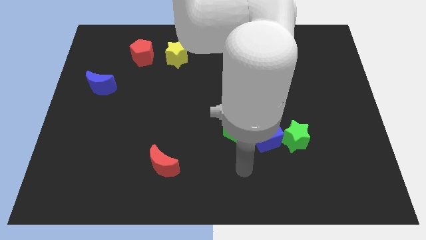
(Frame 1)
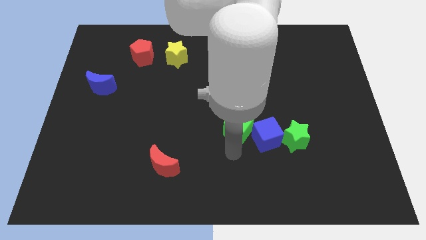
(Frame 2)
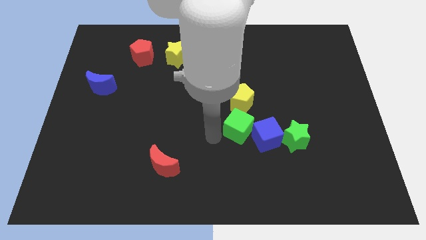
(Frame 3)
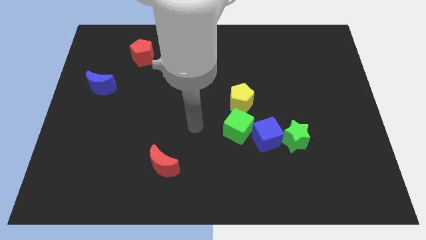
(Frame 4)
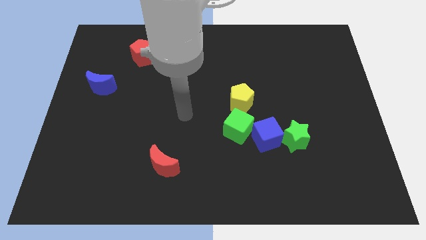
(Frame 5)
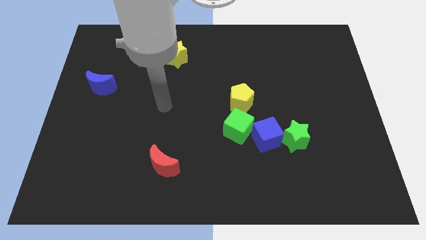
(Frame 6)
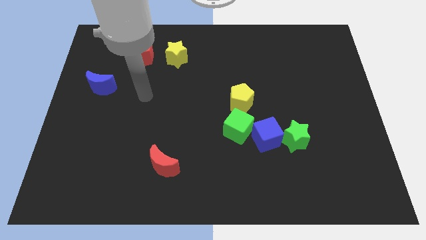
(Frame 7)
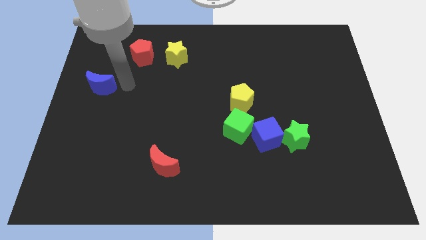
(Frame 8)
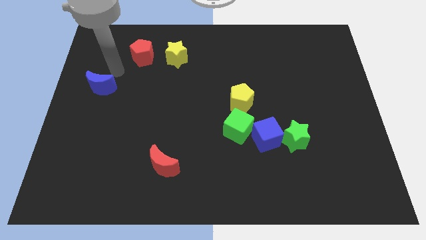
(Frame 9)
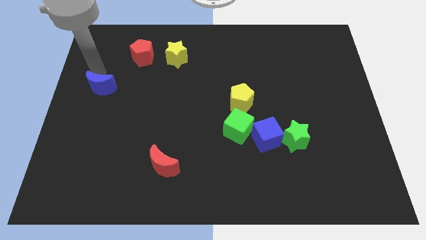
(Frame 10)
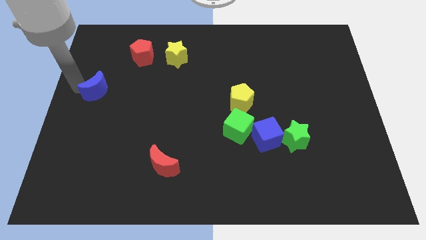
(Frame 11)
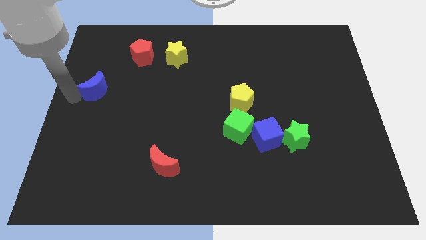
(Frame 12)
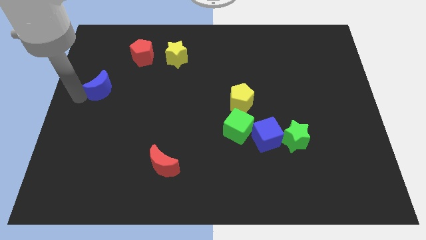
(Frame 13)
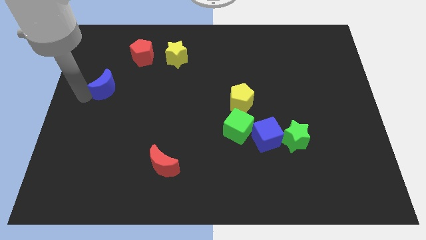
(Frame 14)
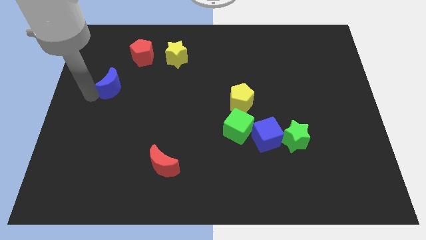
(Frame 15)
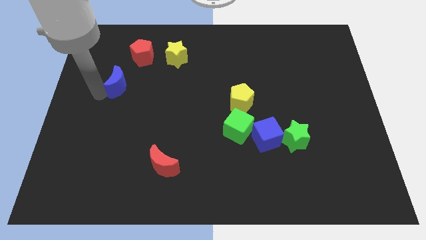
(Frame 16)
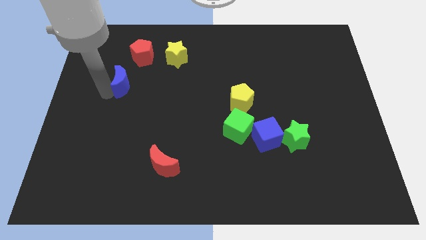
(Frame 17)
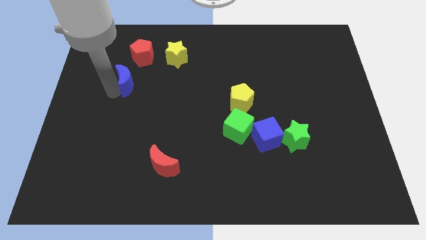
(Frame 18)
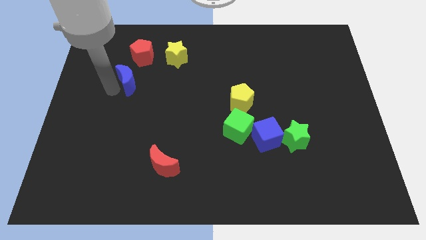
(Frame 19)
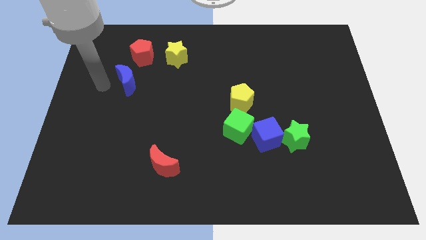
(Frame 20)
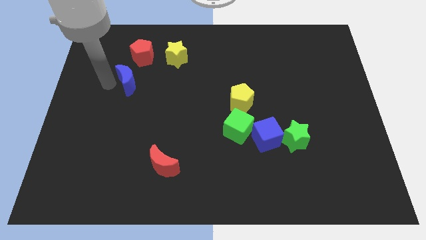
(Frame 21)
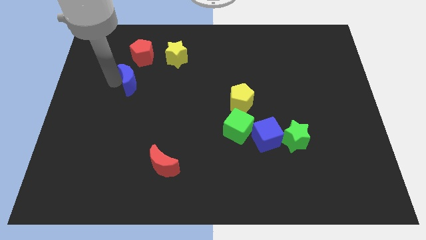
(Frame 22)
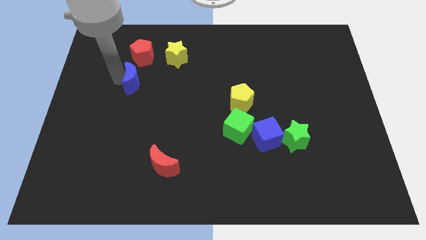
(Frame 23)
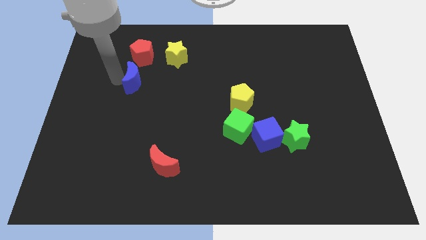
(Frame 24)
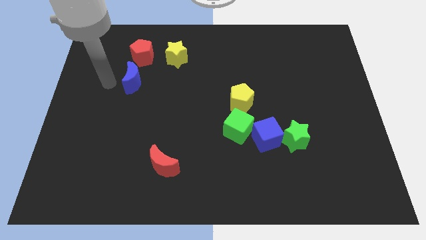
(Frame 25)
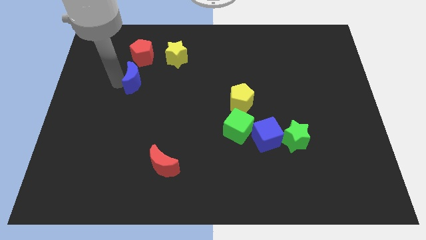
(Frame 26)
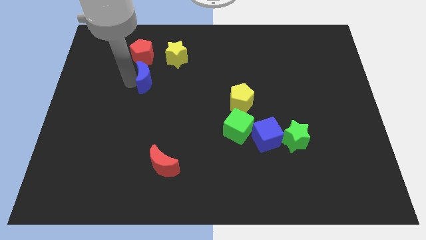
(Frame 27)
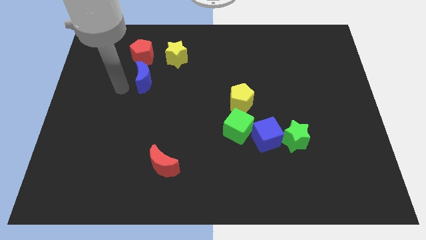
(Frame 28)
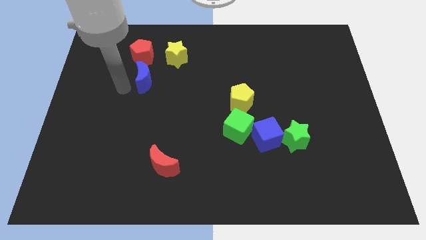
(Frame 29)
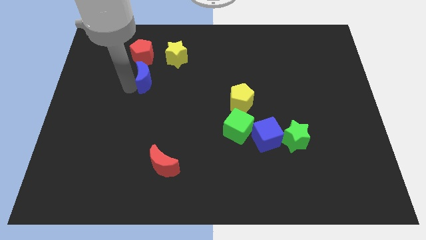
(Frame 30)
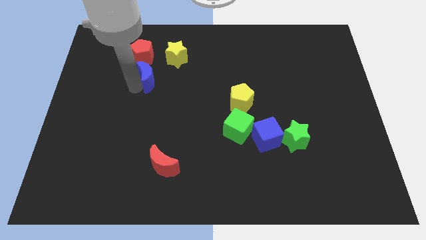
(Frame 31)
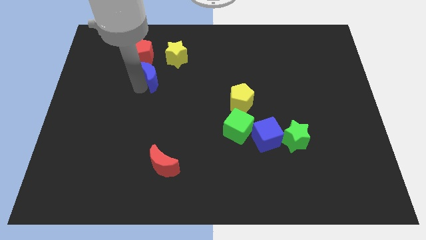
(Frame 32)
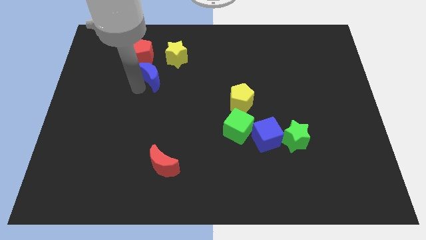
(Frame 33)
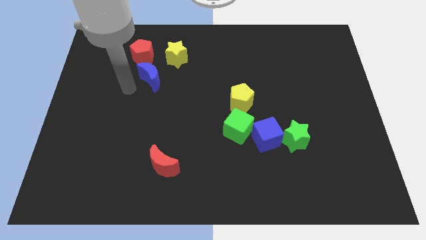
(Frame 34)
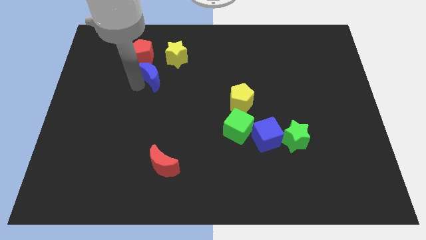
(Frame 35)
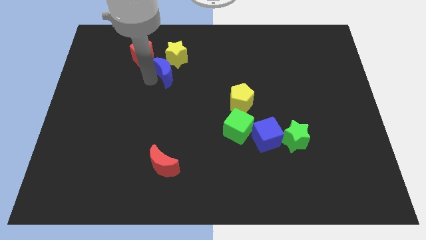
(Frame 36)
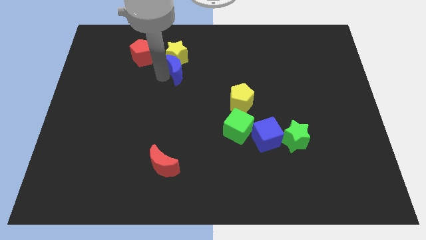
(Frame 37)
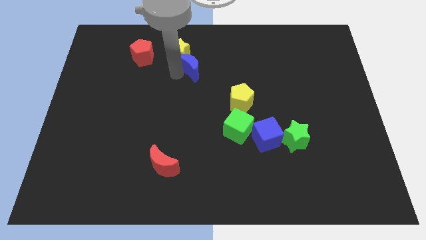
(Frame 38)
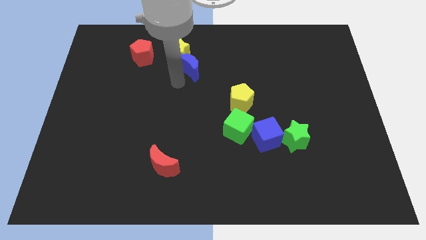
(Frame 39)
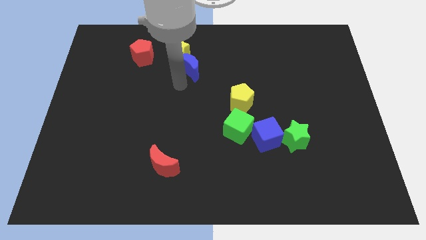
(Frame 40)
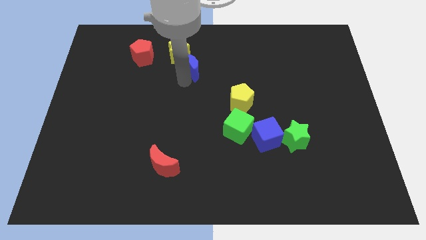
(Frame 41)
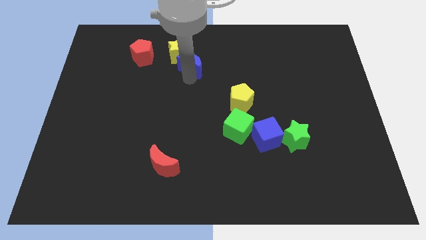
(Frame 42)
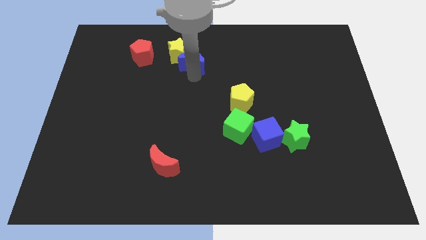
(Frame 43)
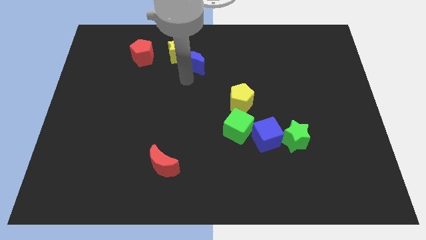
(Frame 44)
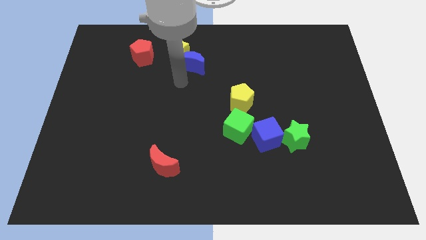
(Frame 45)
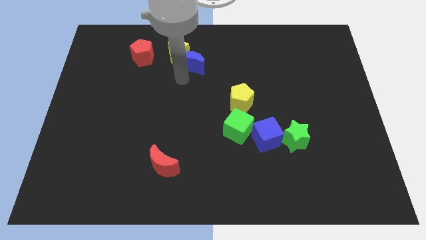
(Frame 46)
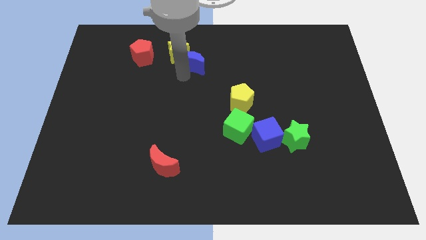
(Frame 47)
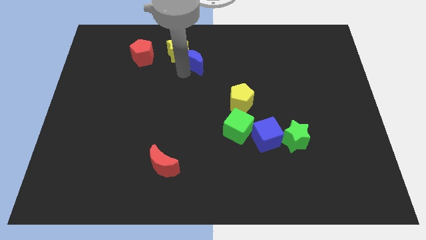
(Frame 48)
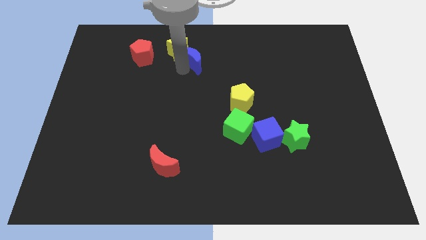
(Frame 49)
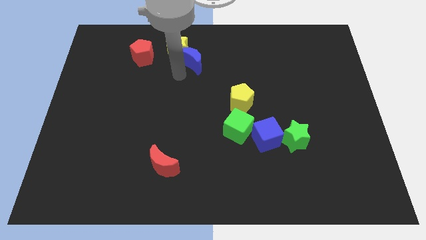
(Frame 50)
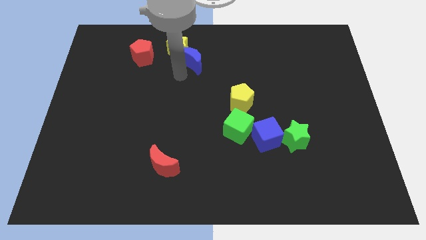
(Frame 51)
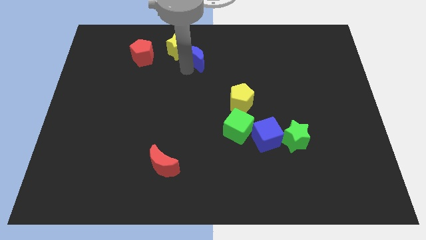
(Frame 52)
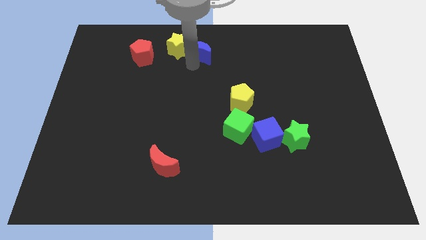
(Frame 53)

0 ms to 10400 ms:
move the blue moon to the towards your base

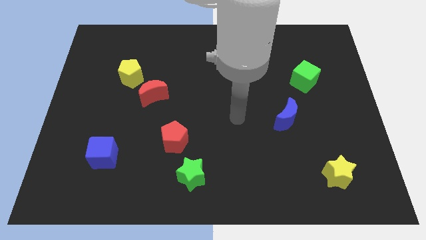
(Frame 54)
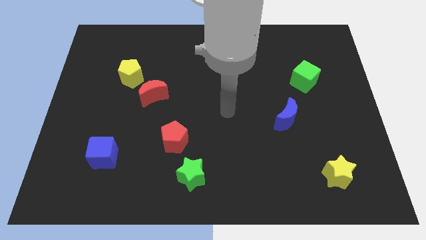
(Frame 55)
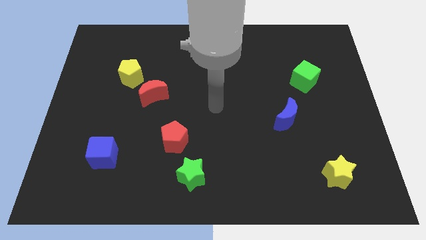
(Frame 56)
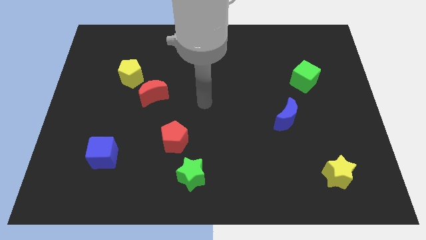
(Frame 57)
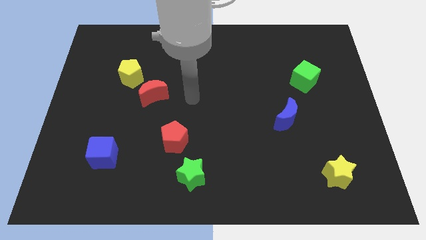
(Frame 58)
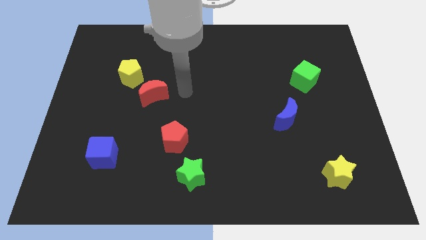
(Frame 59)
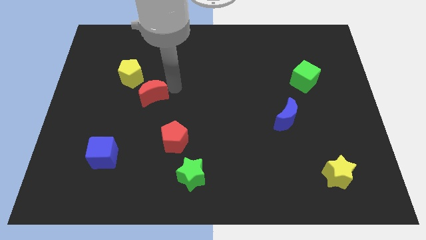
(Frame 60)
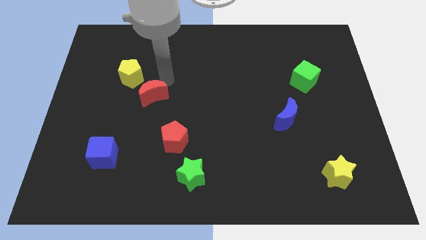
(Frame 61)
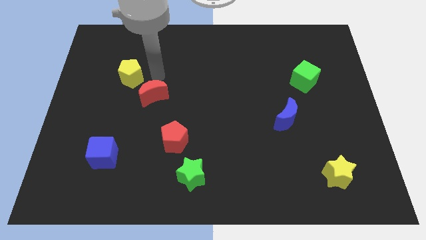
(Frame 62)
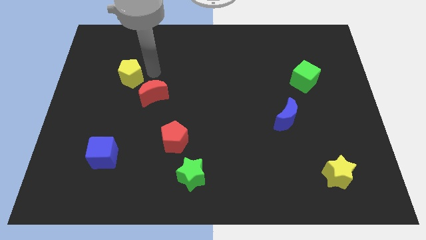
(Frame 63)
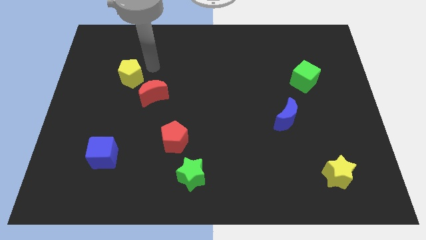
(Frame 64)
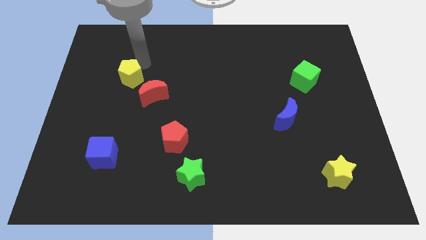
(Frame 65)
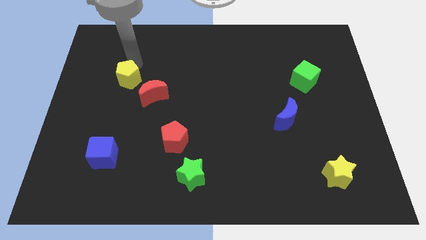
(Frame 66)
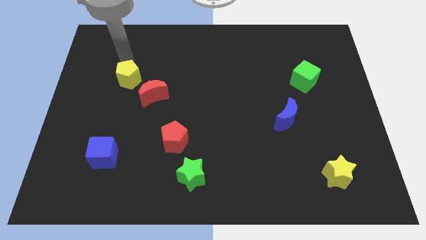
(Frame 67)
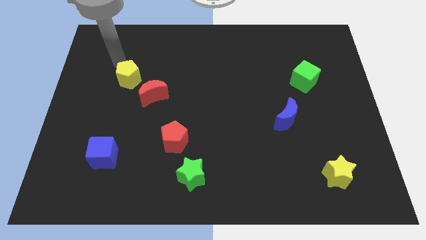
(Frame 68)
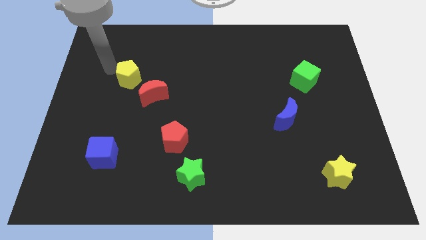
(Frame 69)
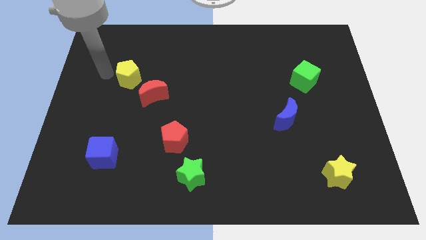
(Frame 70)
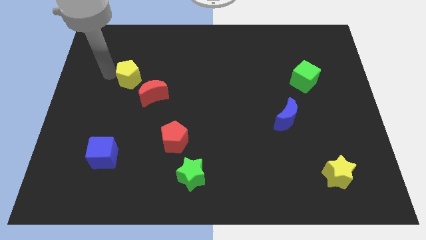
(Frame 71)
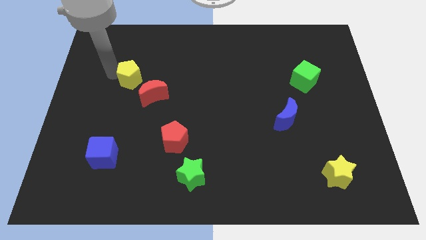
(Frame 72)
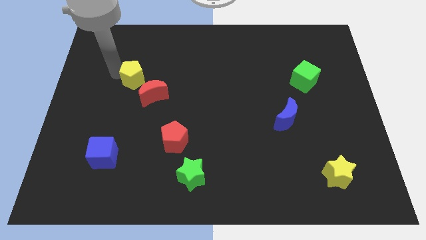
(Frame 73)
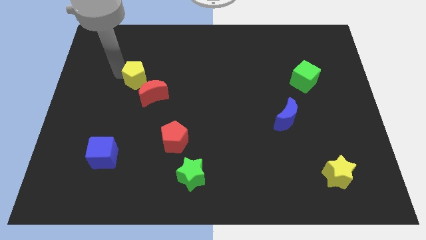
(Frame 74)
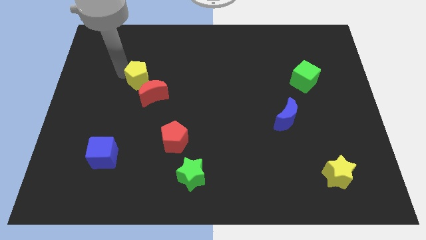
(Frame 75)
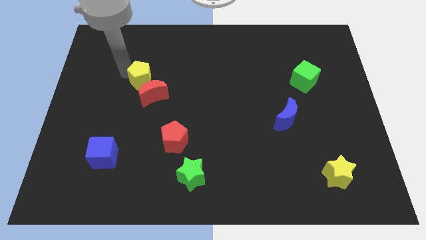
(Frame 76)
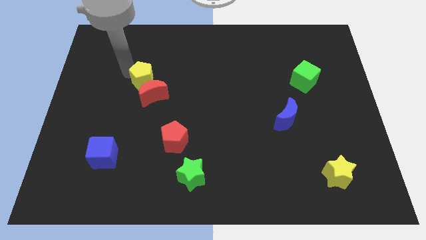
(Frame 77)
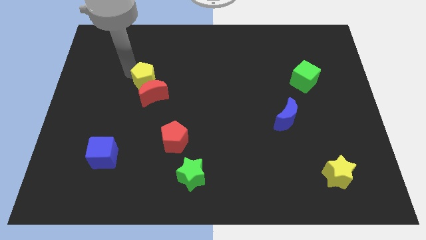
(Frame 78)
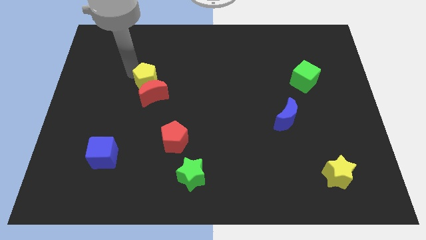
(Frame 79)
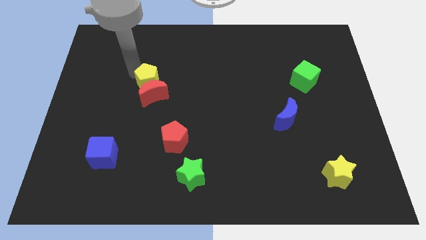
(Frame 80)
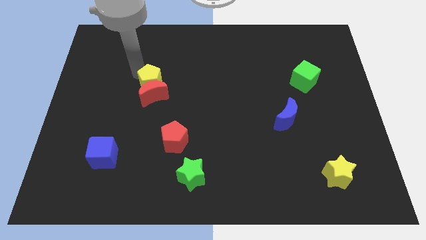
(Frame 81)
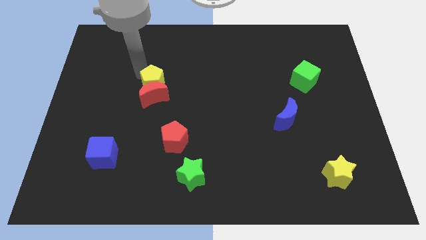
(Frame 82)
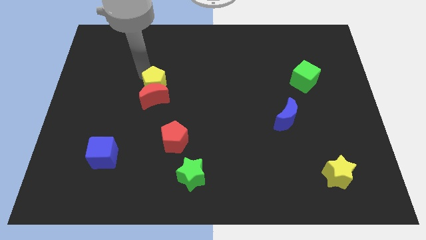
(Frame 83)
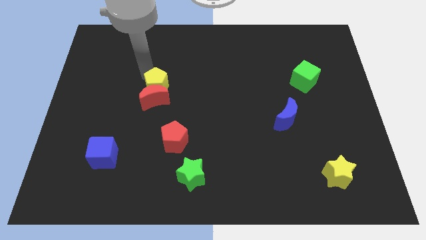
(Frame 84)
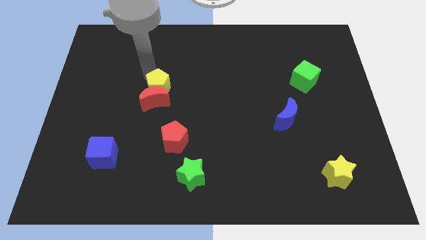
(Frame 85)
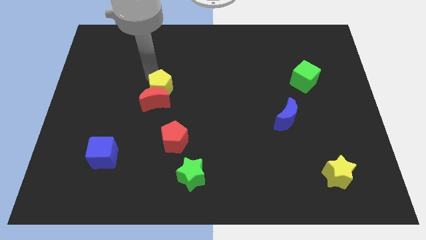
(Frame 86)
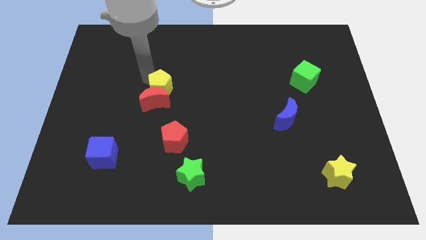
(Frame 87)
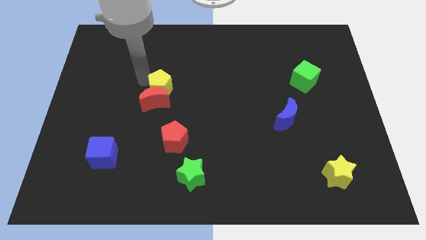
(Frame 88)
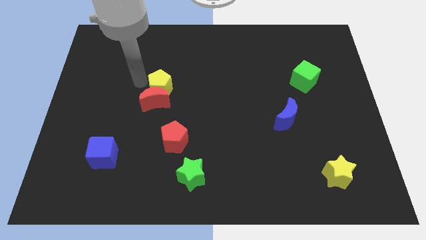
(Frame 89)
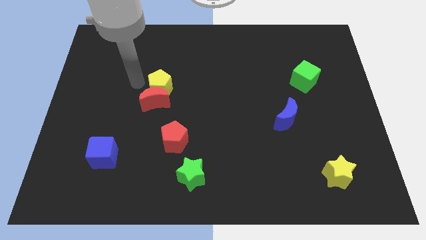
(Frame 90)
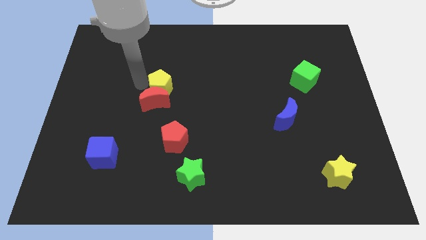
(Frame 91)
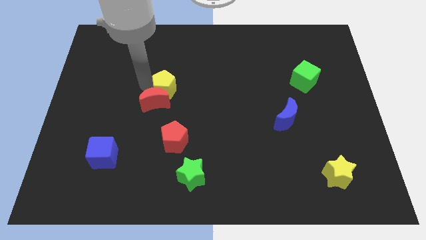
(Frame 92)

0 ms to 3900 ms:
put the yellow pentagon to the center
